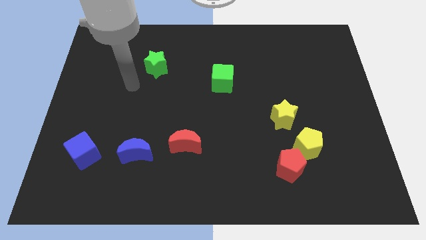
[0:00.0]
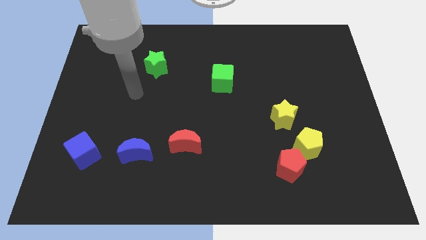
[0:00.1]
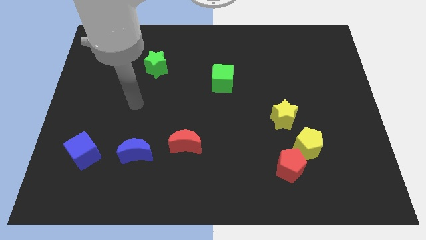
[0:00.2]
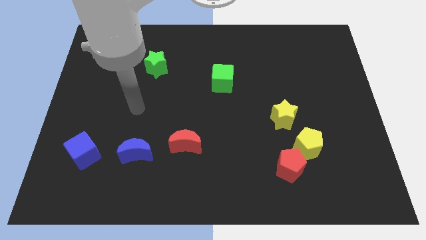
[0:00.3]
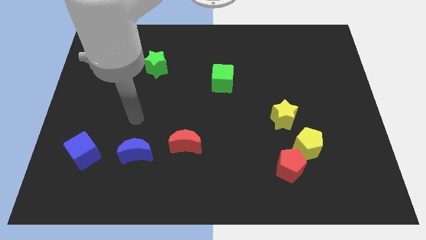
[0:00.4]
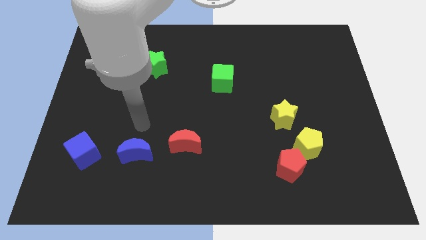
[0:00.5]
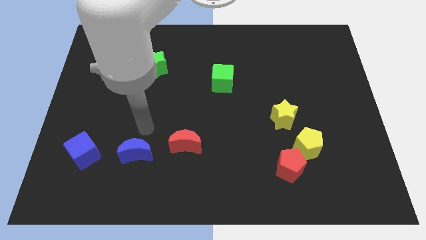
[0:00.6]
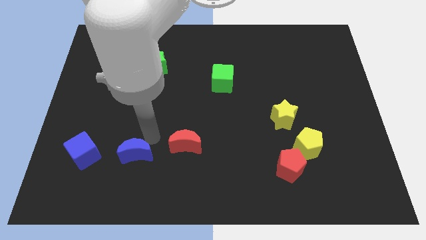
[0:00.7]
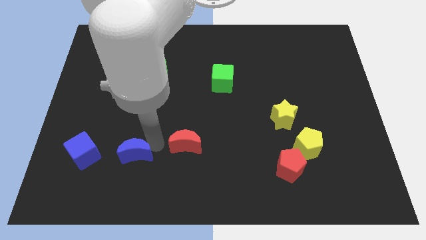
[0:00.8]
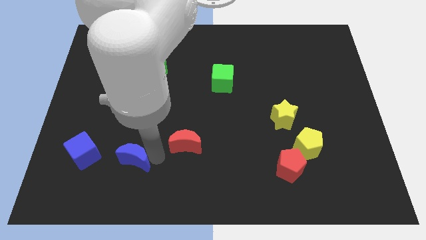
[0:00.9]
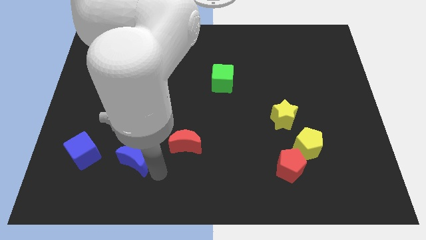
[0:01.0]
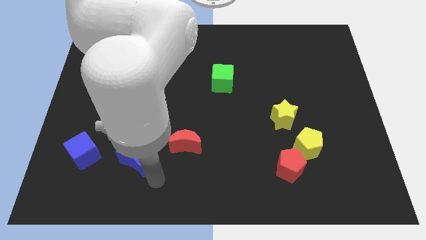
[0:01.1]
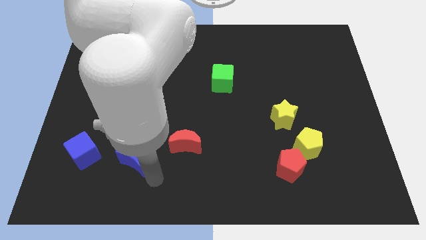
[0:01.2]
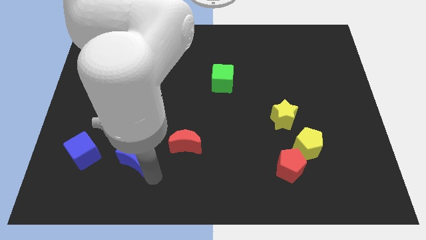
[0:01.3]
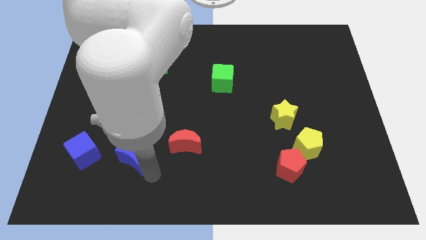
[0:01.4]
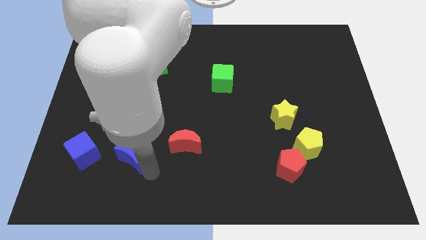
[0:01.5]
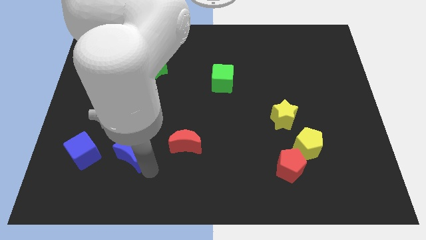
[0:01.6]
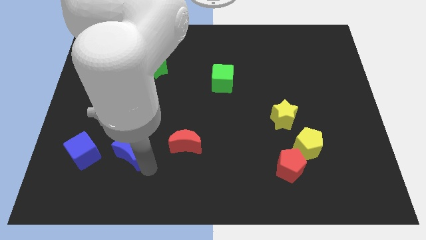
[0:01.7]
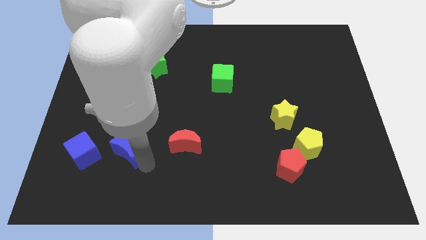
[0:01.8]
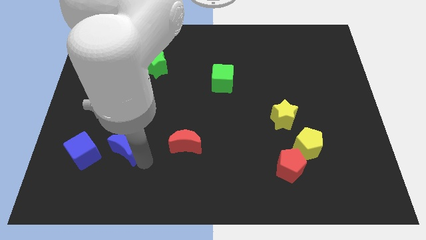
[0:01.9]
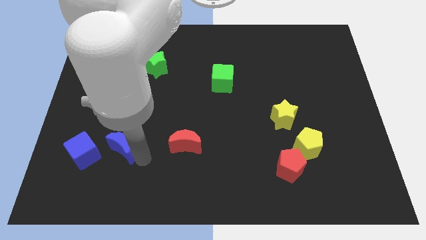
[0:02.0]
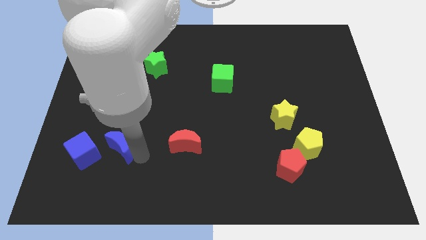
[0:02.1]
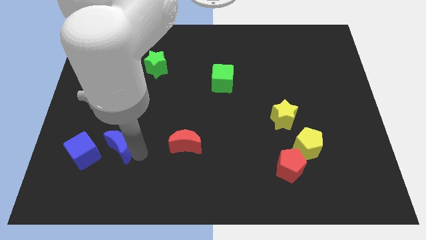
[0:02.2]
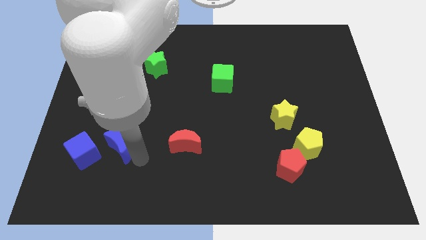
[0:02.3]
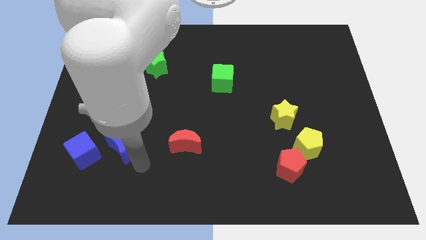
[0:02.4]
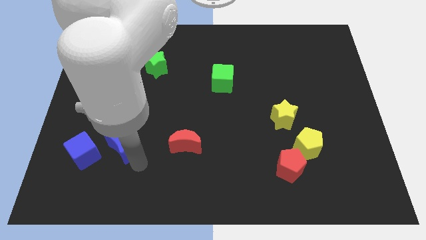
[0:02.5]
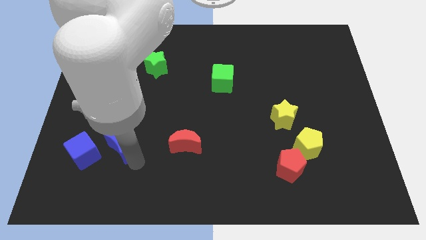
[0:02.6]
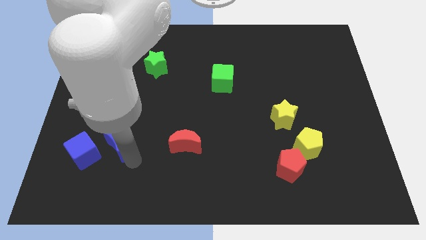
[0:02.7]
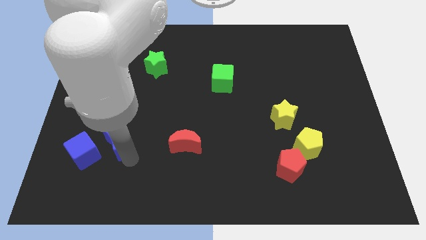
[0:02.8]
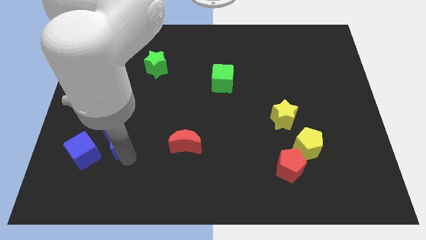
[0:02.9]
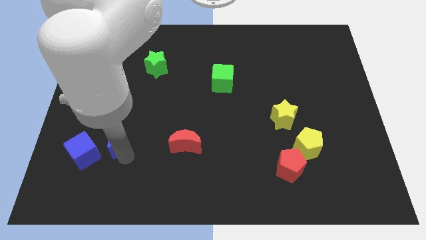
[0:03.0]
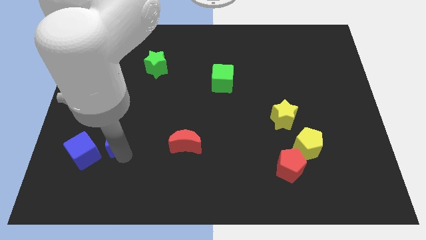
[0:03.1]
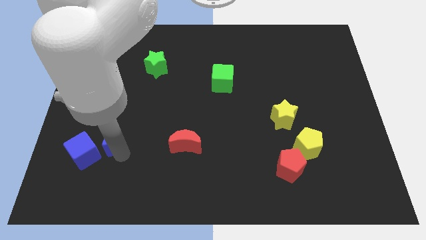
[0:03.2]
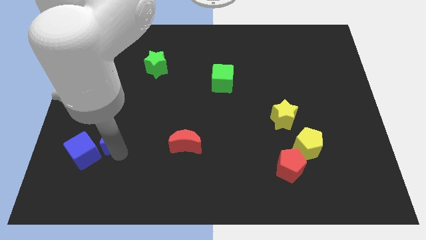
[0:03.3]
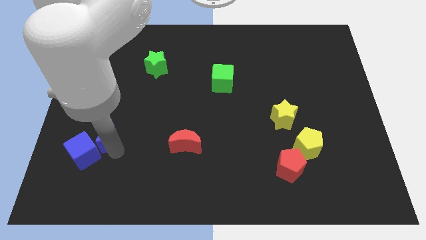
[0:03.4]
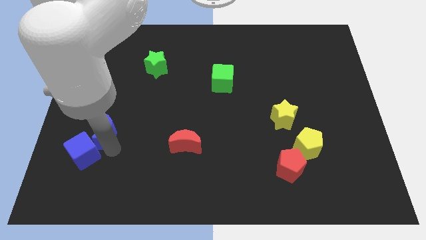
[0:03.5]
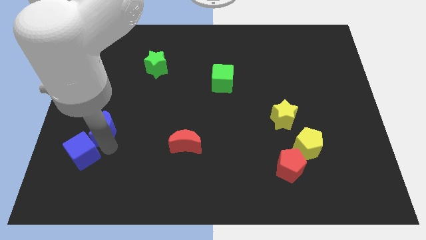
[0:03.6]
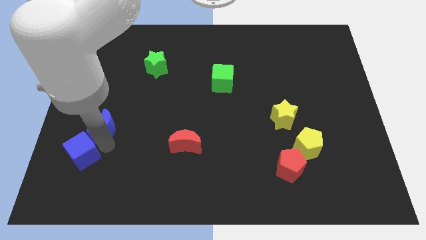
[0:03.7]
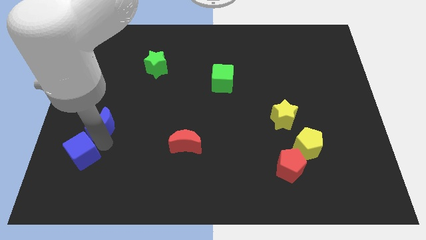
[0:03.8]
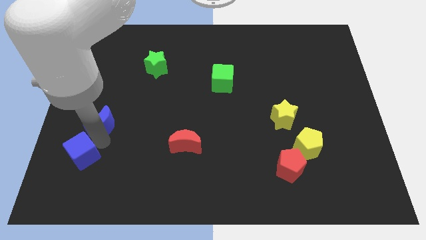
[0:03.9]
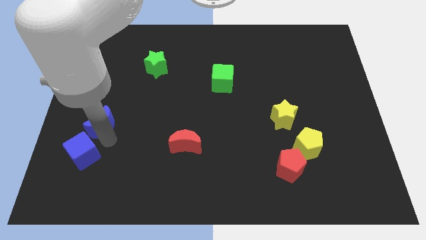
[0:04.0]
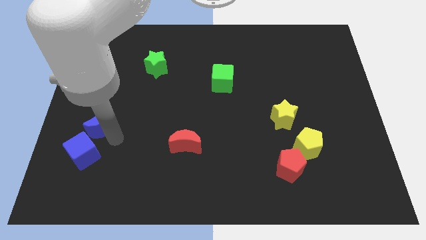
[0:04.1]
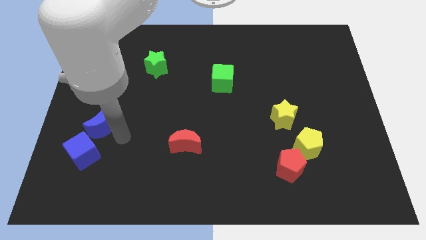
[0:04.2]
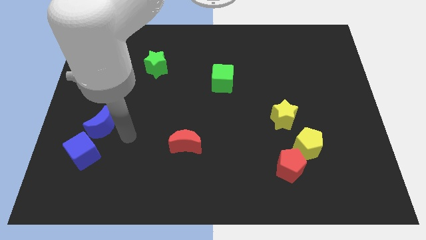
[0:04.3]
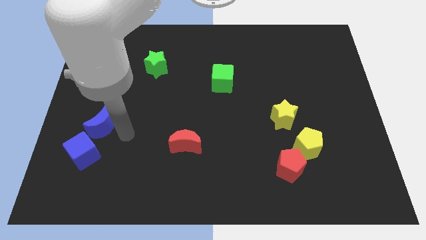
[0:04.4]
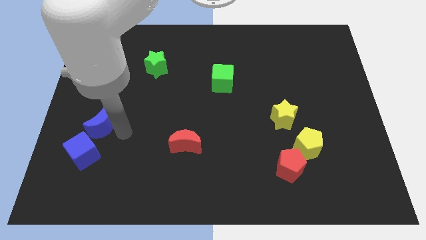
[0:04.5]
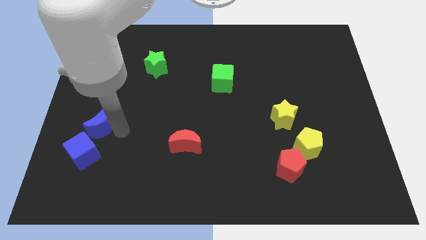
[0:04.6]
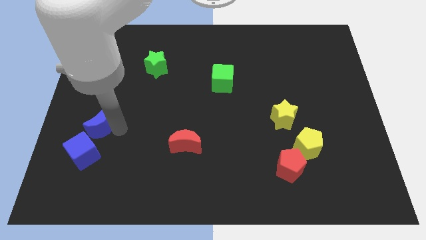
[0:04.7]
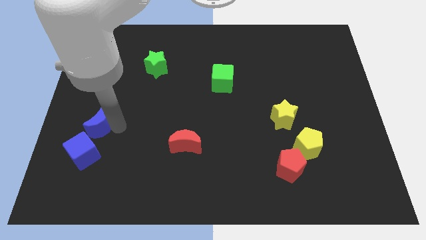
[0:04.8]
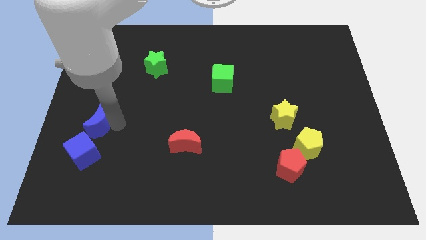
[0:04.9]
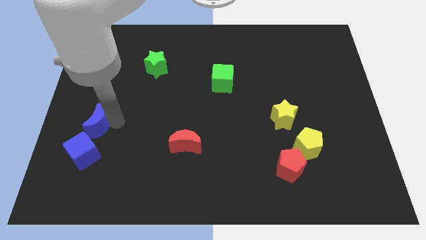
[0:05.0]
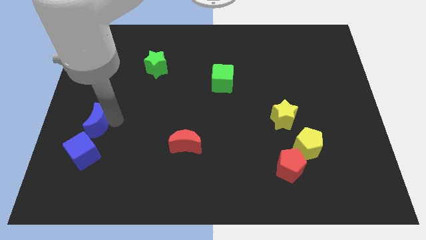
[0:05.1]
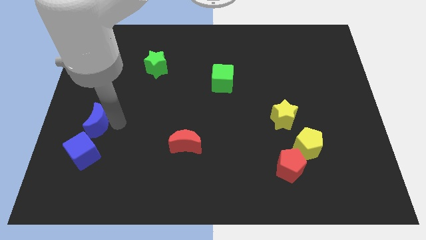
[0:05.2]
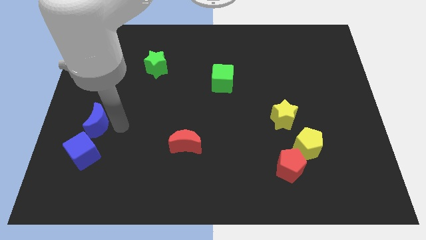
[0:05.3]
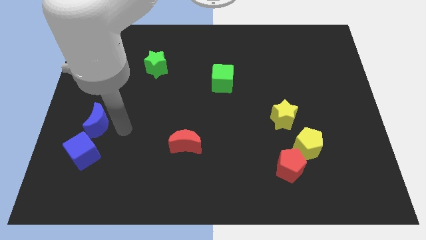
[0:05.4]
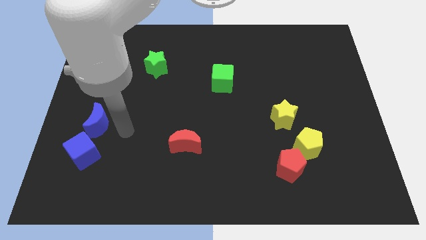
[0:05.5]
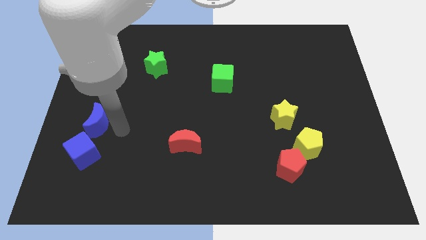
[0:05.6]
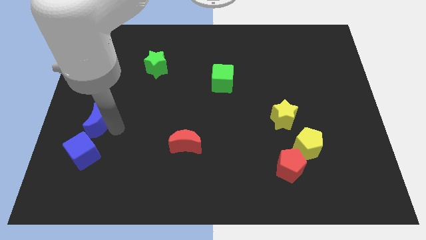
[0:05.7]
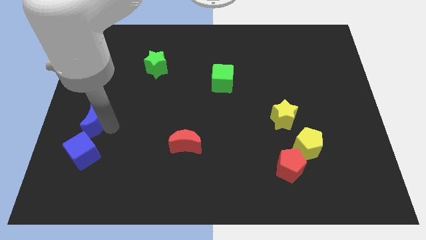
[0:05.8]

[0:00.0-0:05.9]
push the blue moon to the left side

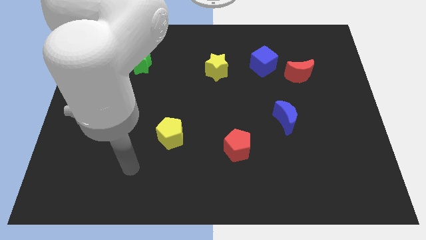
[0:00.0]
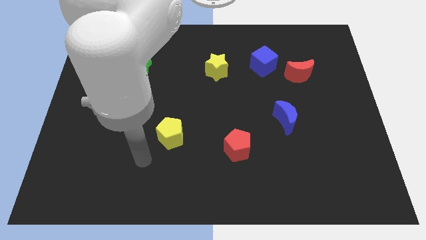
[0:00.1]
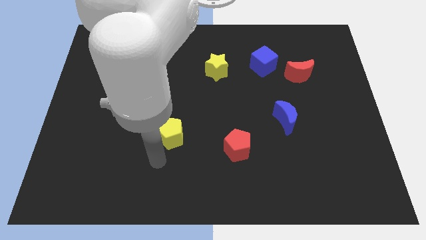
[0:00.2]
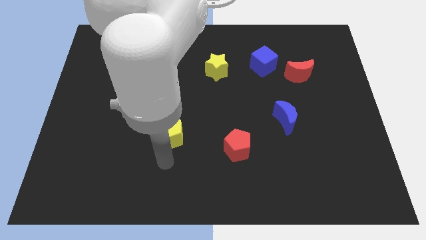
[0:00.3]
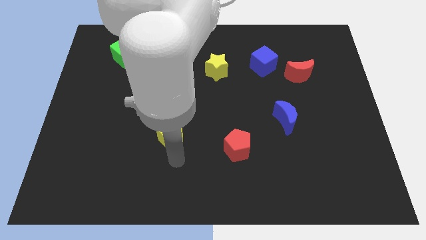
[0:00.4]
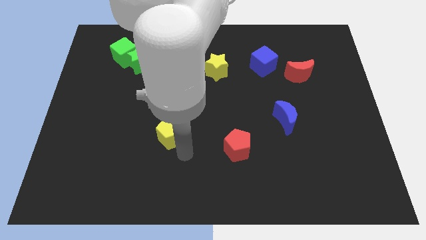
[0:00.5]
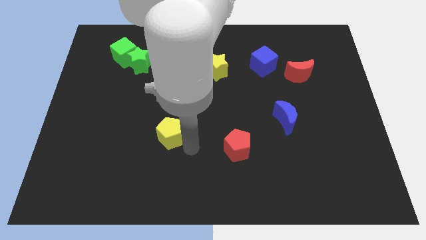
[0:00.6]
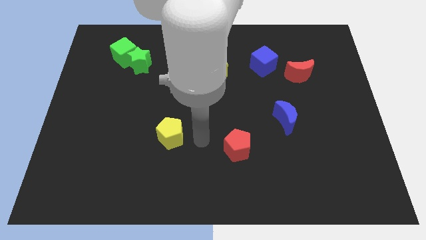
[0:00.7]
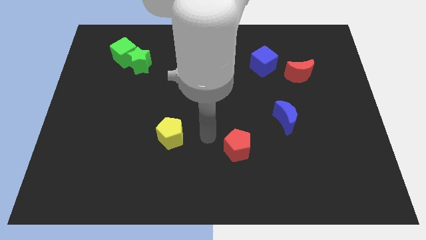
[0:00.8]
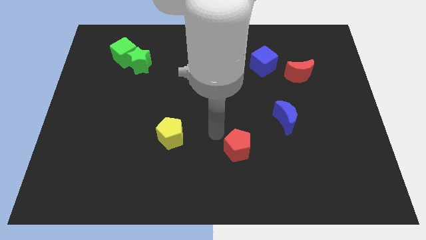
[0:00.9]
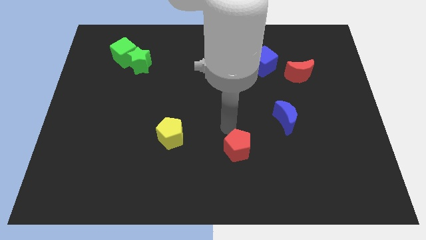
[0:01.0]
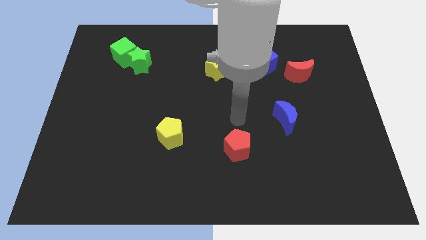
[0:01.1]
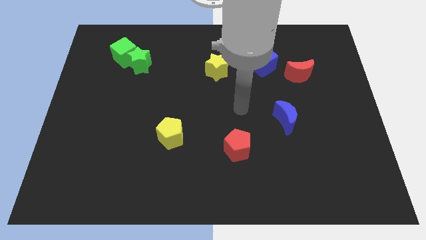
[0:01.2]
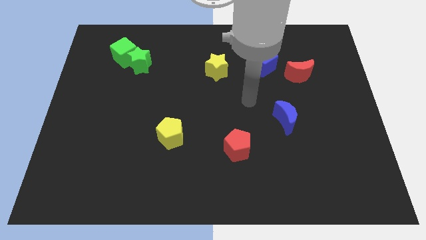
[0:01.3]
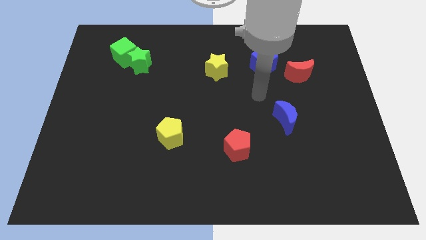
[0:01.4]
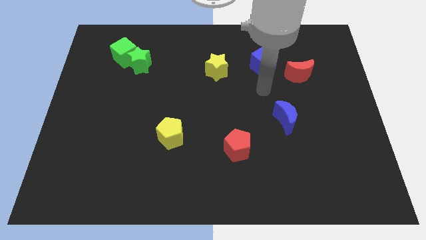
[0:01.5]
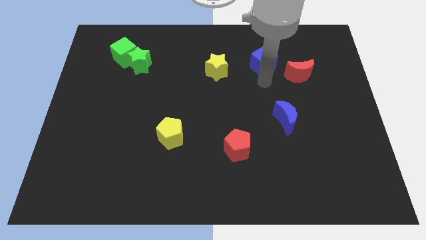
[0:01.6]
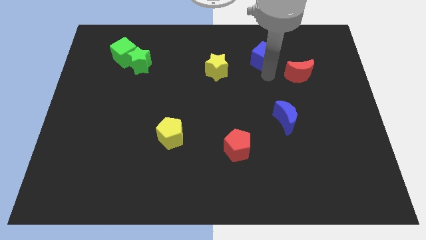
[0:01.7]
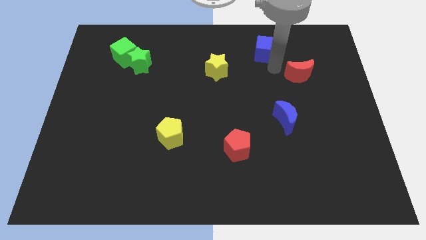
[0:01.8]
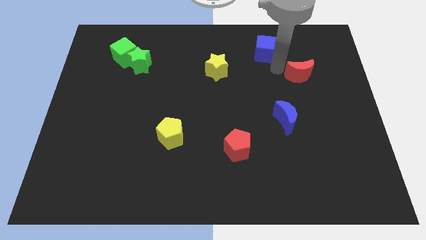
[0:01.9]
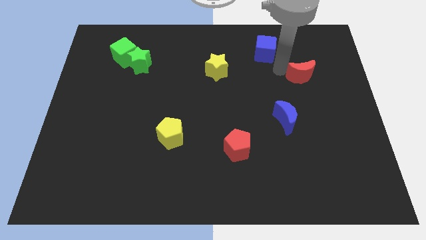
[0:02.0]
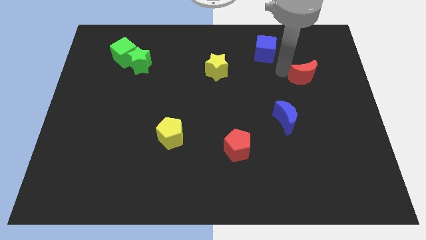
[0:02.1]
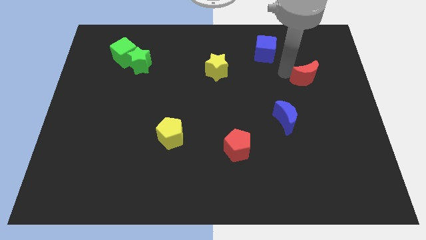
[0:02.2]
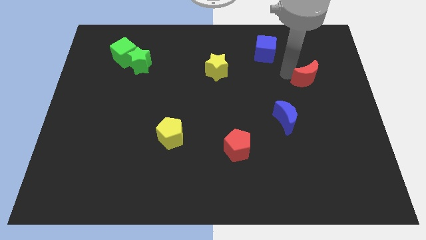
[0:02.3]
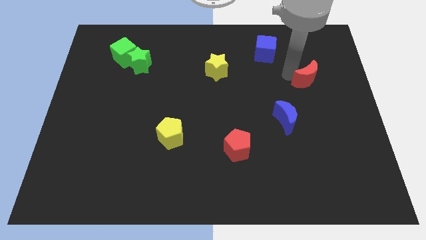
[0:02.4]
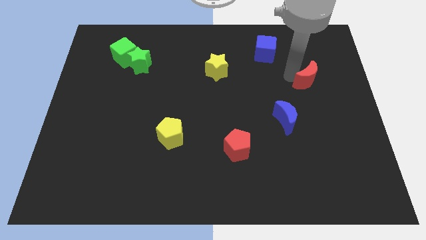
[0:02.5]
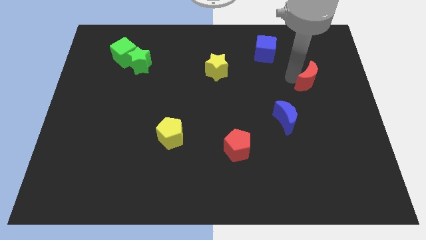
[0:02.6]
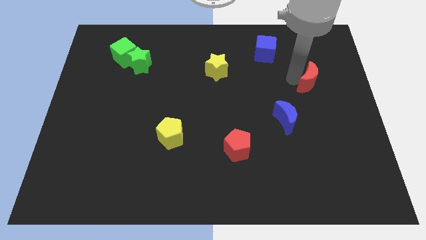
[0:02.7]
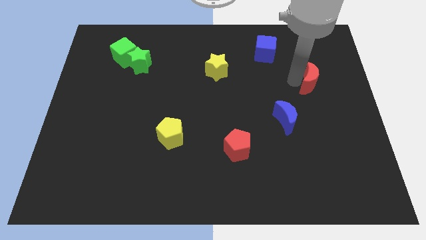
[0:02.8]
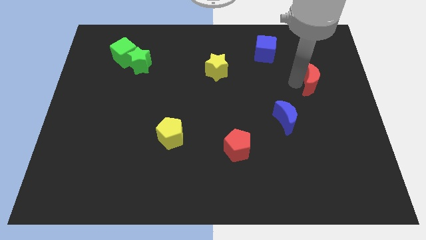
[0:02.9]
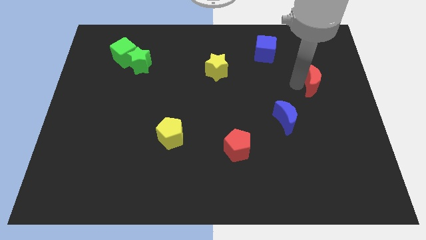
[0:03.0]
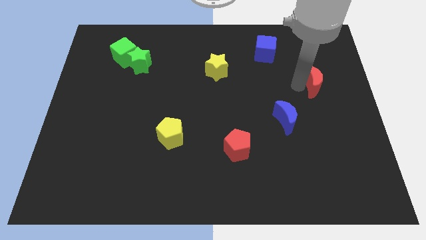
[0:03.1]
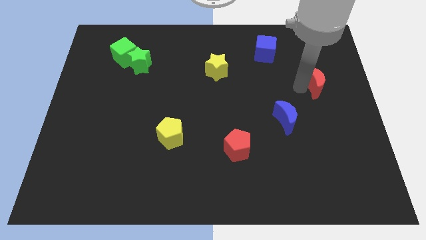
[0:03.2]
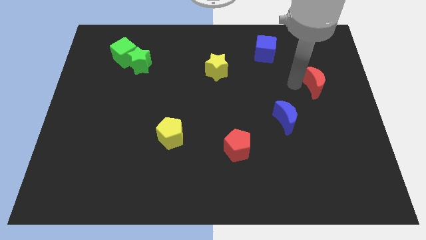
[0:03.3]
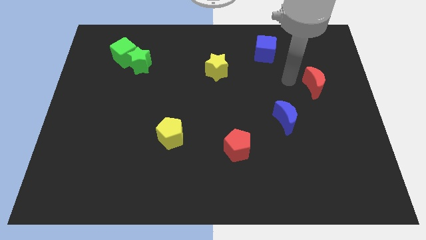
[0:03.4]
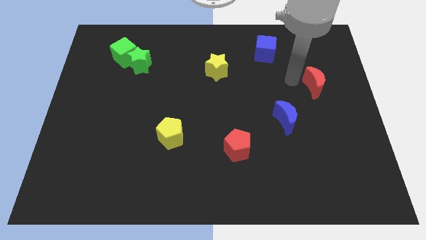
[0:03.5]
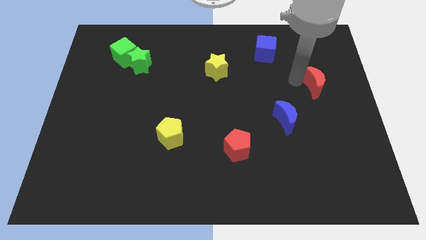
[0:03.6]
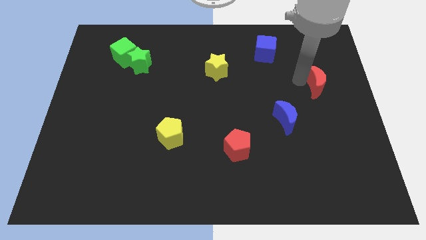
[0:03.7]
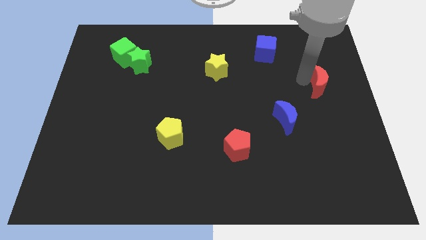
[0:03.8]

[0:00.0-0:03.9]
move the red moon to the right side of the board
